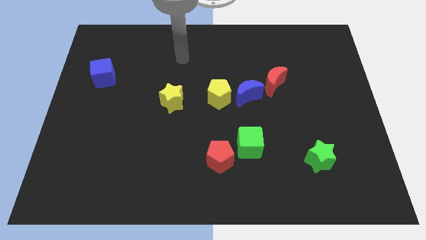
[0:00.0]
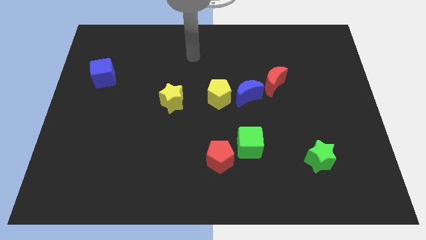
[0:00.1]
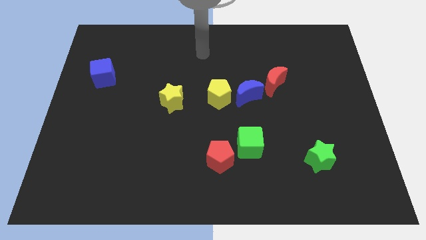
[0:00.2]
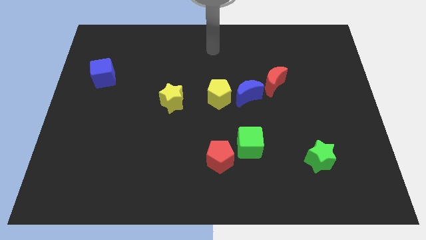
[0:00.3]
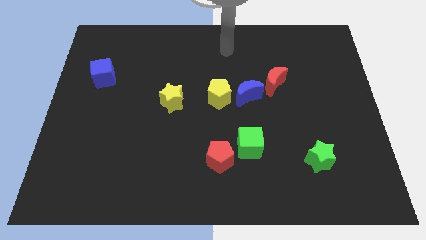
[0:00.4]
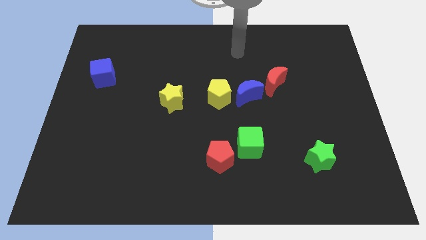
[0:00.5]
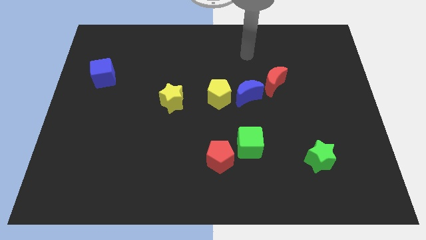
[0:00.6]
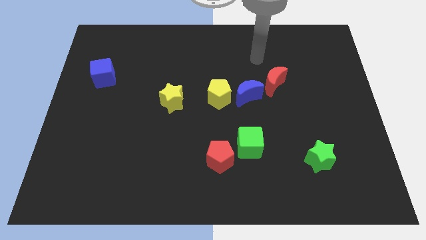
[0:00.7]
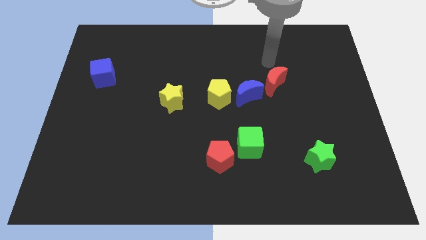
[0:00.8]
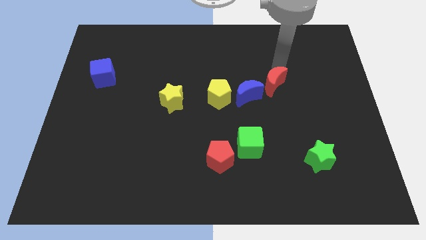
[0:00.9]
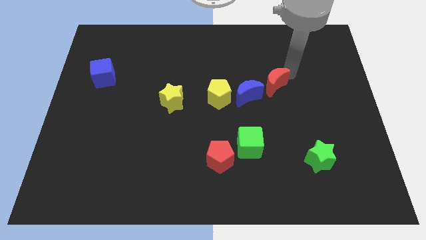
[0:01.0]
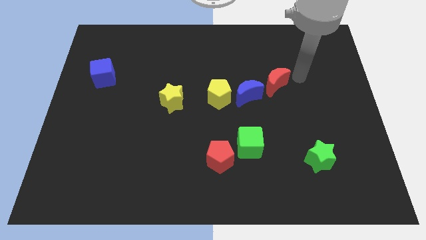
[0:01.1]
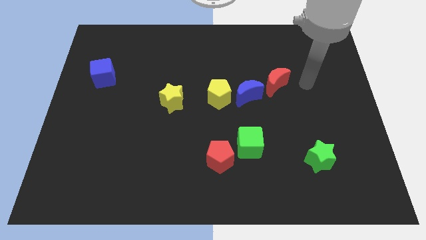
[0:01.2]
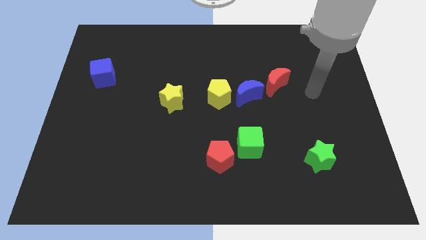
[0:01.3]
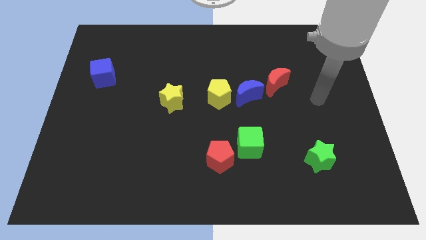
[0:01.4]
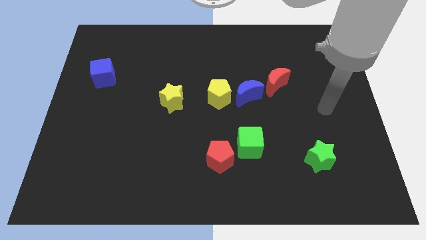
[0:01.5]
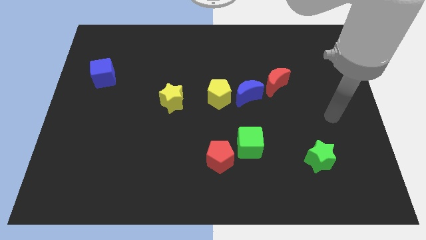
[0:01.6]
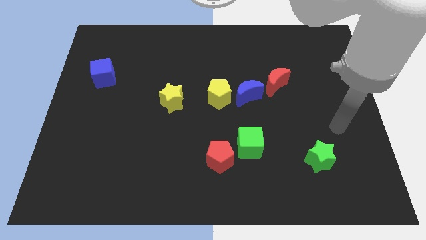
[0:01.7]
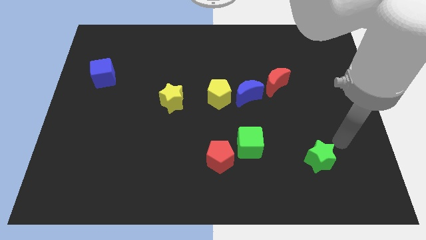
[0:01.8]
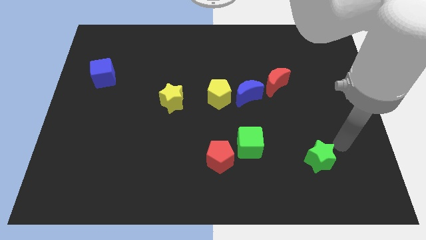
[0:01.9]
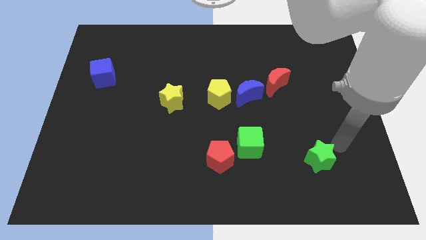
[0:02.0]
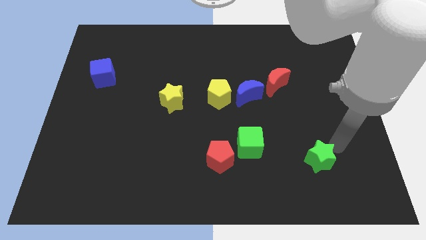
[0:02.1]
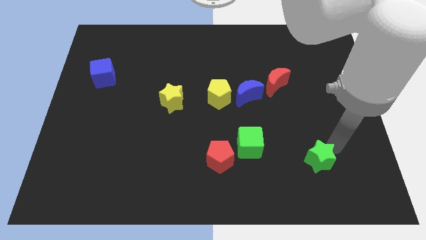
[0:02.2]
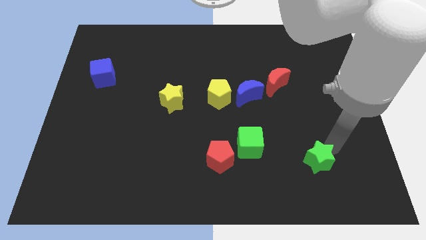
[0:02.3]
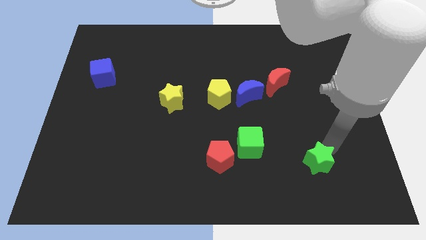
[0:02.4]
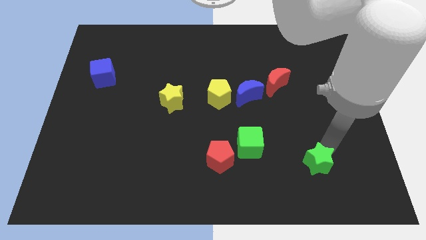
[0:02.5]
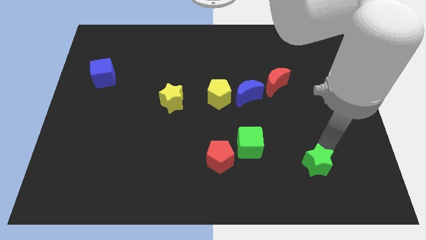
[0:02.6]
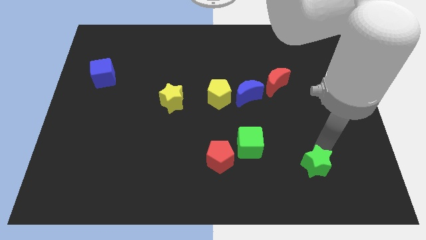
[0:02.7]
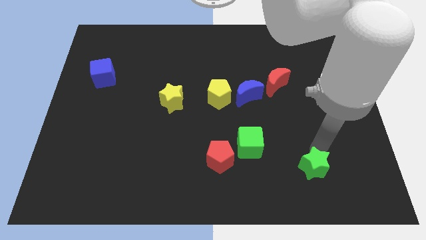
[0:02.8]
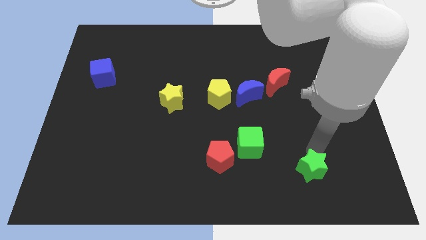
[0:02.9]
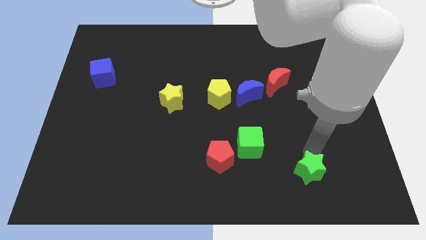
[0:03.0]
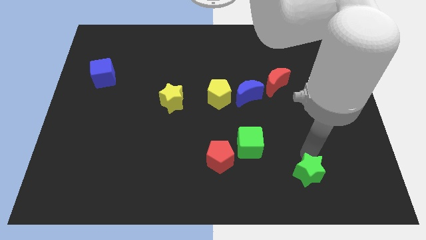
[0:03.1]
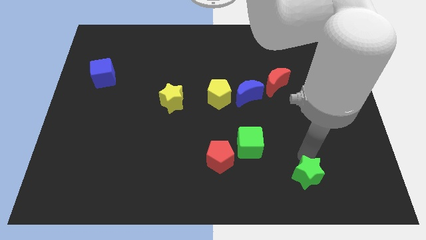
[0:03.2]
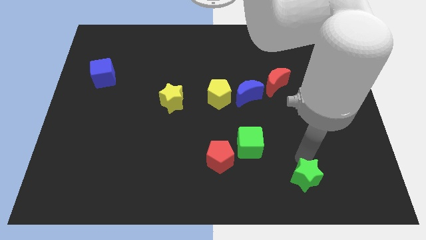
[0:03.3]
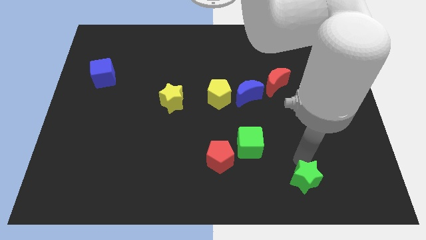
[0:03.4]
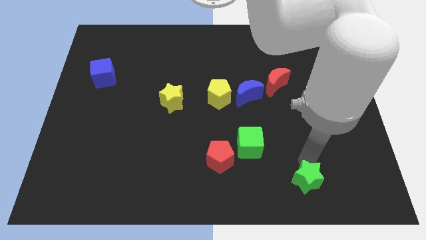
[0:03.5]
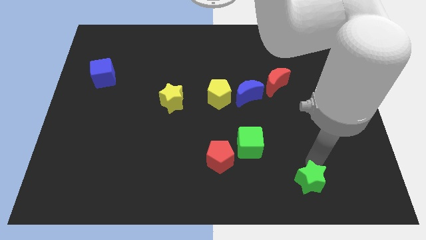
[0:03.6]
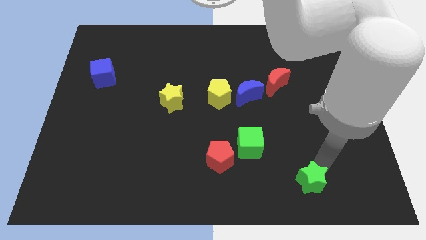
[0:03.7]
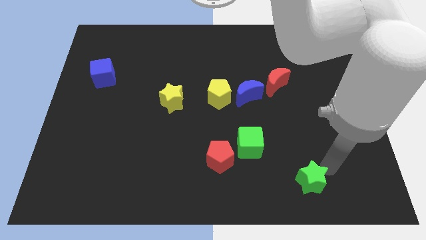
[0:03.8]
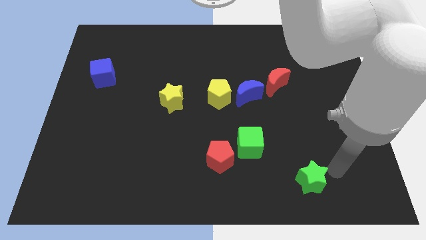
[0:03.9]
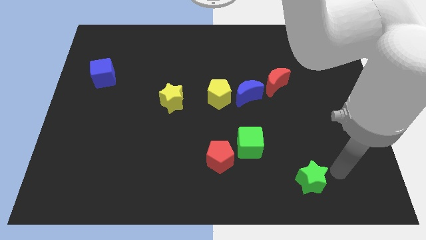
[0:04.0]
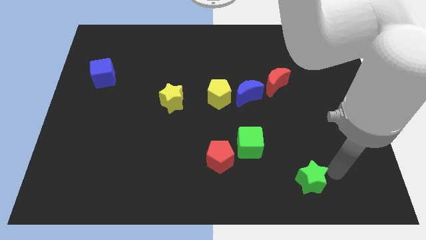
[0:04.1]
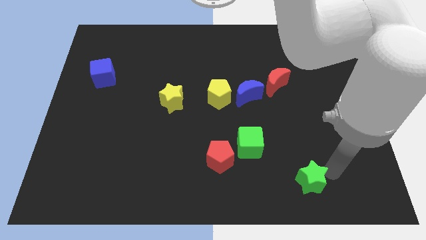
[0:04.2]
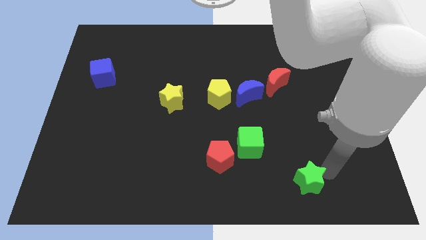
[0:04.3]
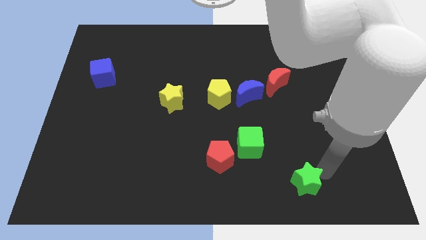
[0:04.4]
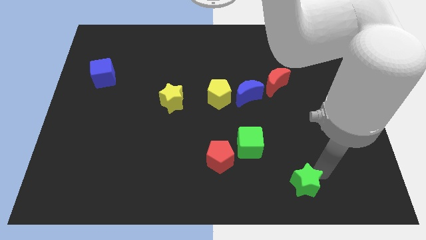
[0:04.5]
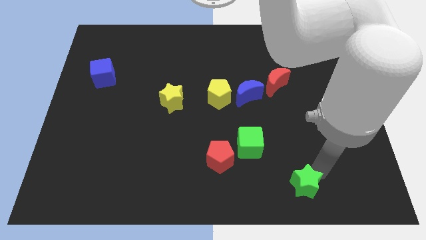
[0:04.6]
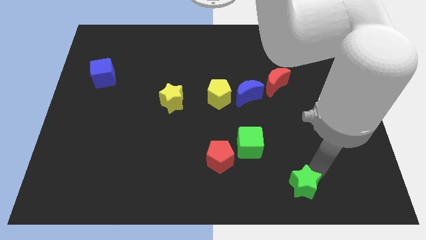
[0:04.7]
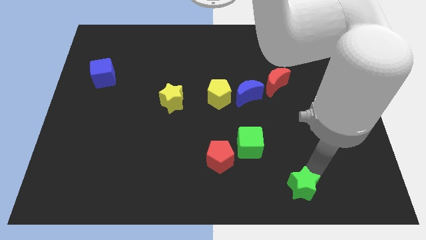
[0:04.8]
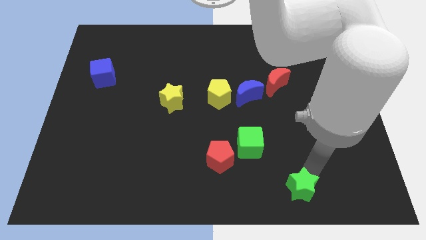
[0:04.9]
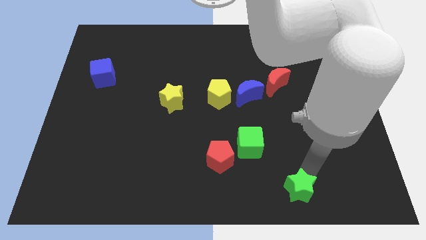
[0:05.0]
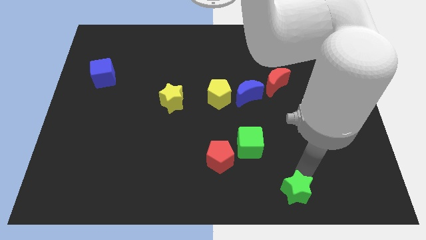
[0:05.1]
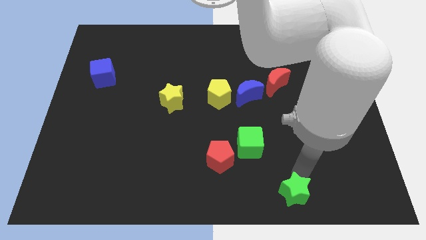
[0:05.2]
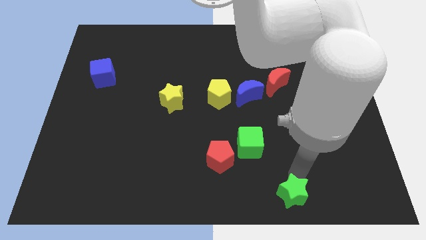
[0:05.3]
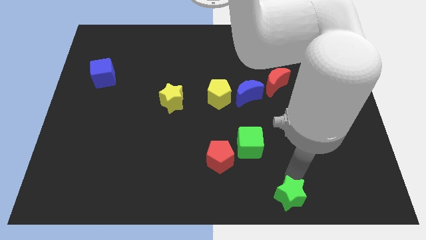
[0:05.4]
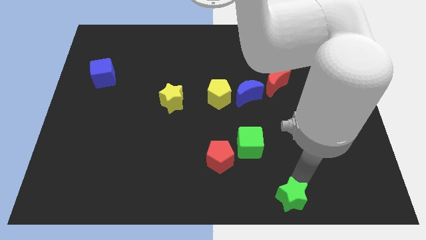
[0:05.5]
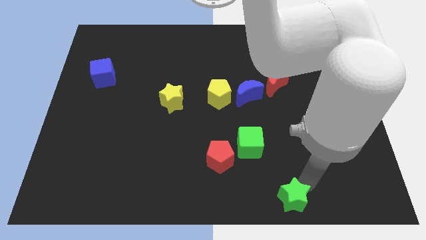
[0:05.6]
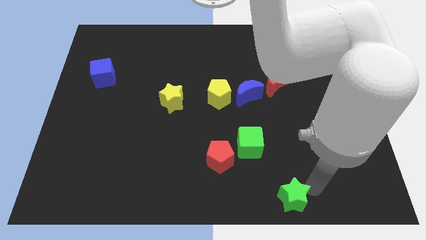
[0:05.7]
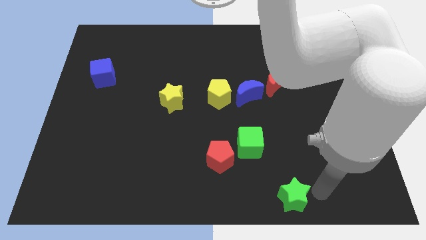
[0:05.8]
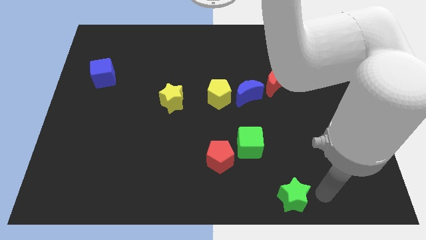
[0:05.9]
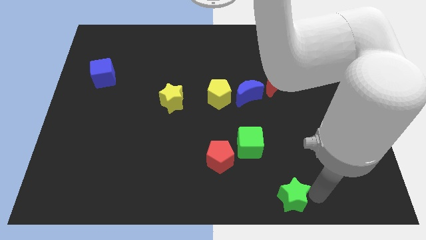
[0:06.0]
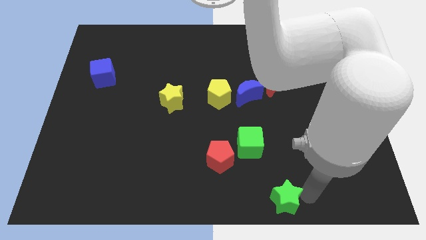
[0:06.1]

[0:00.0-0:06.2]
move the green star to the bottom side

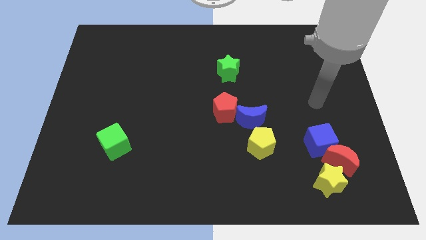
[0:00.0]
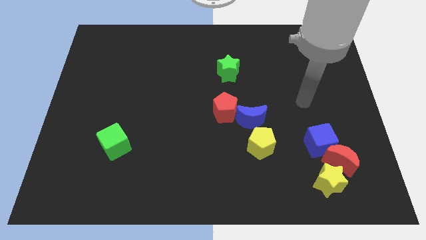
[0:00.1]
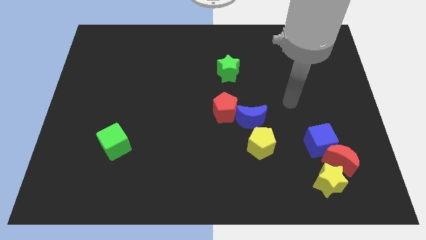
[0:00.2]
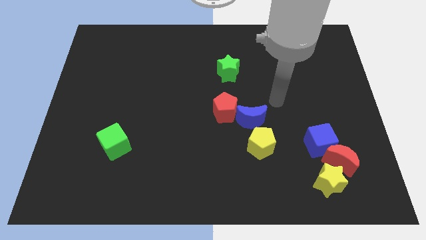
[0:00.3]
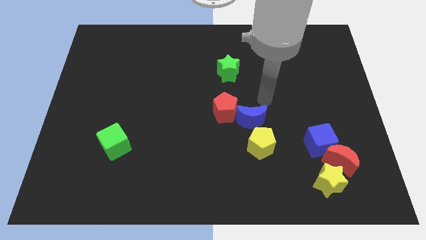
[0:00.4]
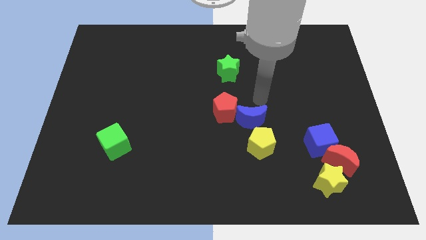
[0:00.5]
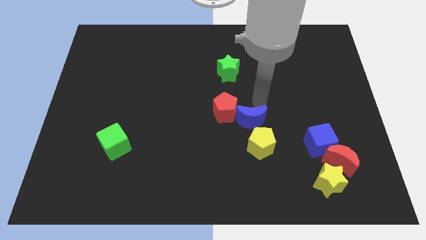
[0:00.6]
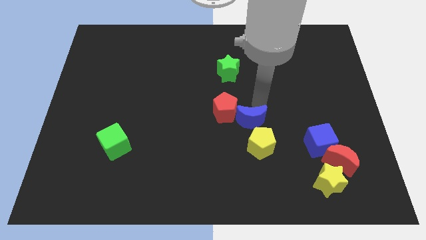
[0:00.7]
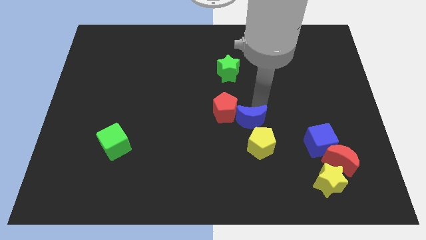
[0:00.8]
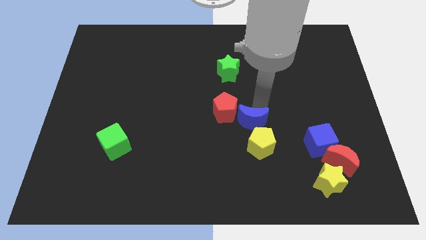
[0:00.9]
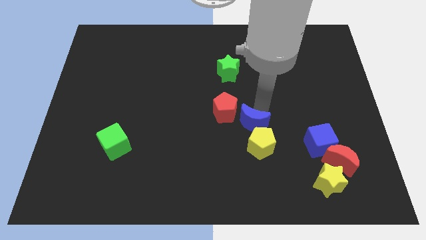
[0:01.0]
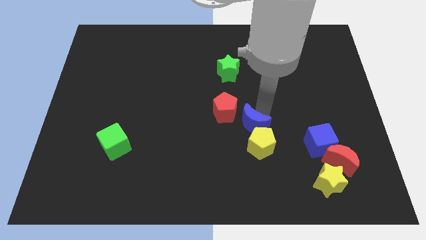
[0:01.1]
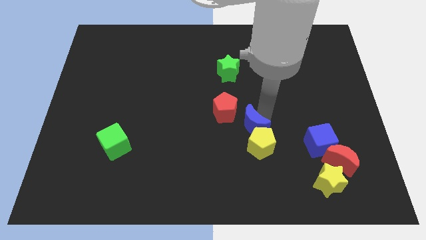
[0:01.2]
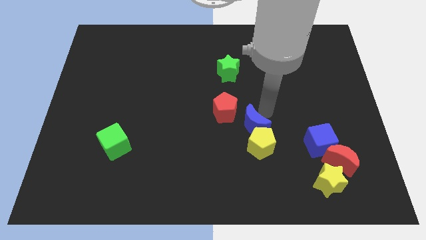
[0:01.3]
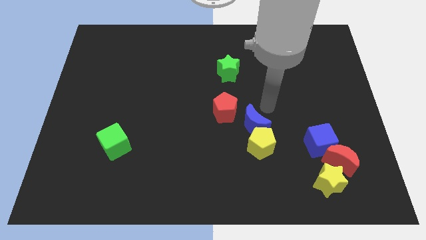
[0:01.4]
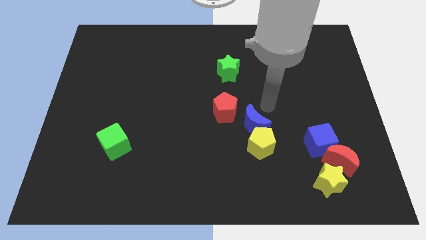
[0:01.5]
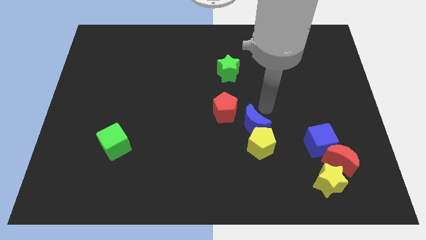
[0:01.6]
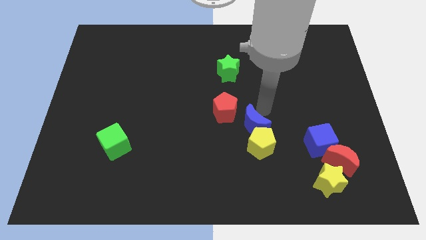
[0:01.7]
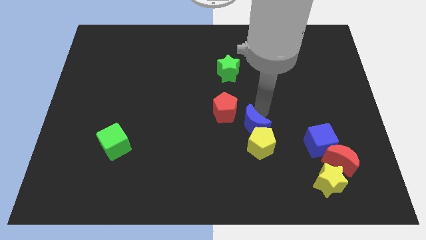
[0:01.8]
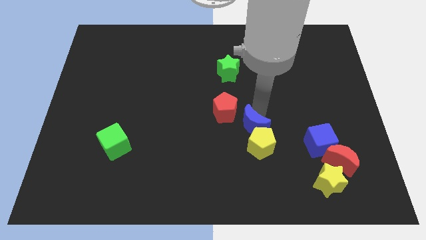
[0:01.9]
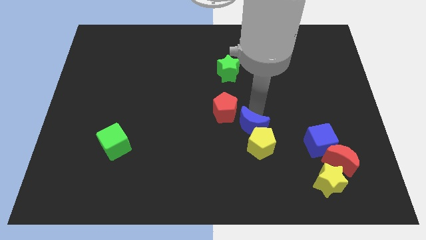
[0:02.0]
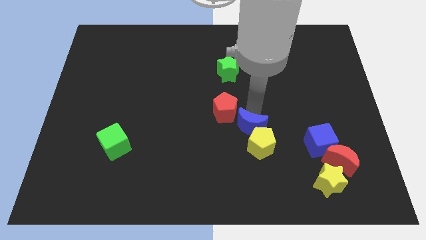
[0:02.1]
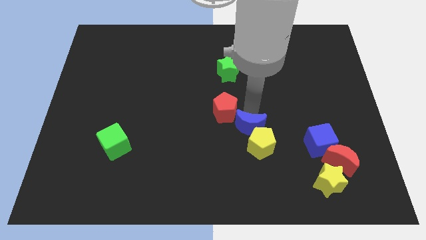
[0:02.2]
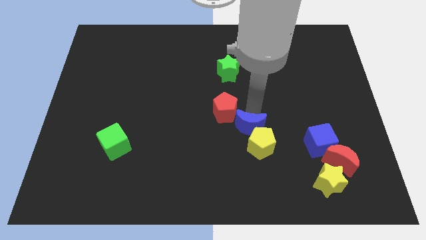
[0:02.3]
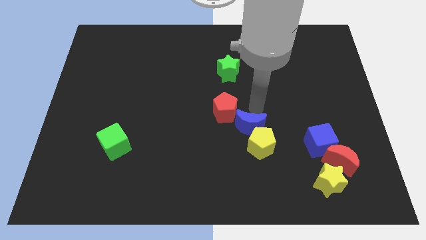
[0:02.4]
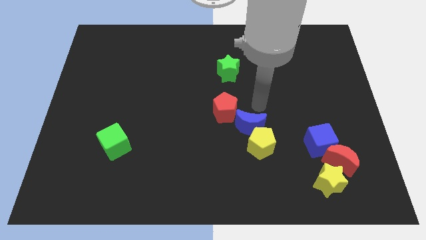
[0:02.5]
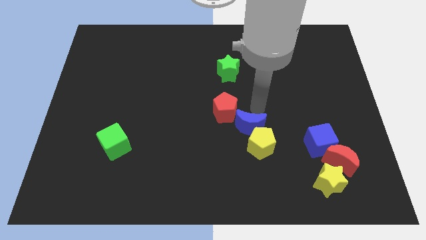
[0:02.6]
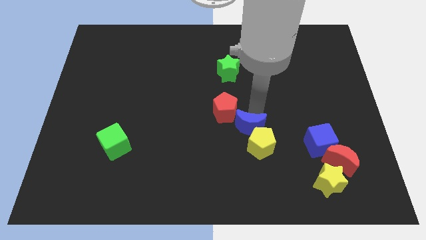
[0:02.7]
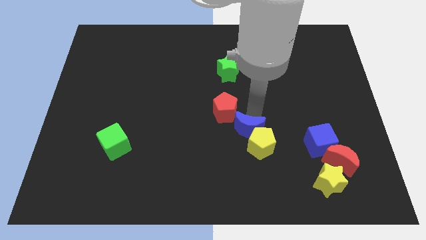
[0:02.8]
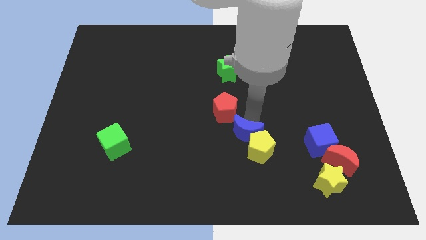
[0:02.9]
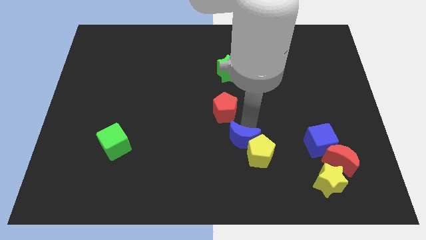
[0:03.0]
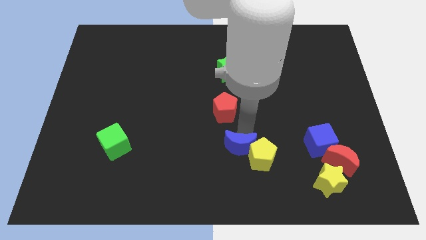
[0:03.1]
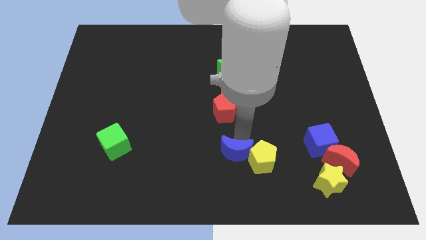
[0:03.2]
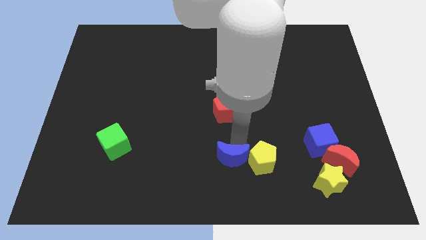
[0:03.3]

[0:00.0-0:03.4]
put the blue moon to the bottom
